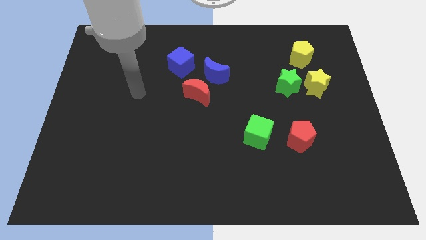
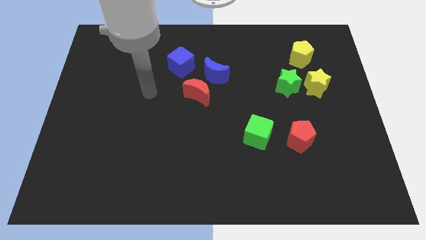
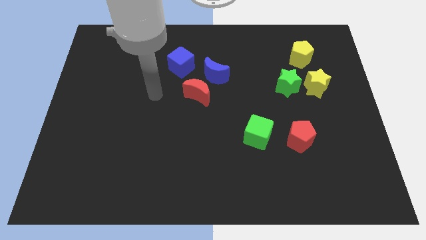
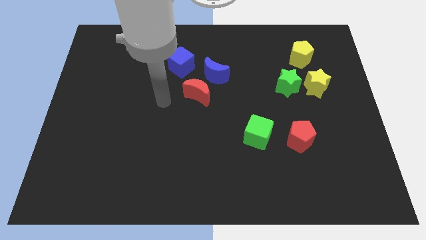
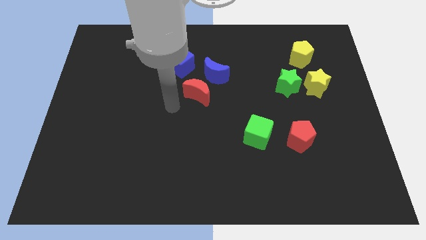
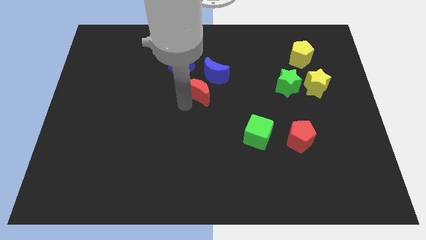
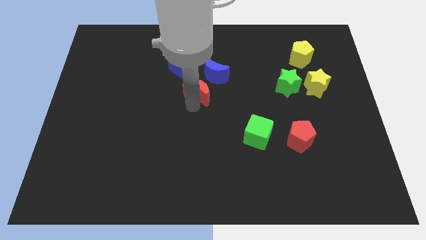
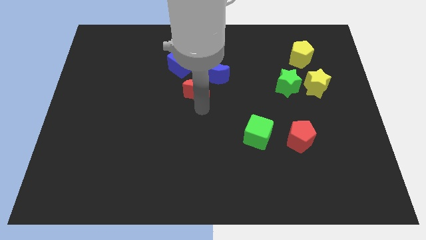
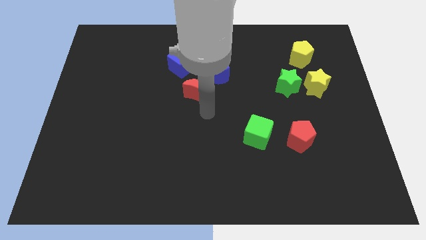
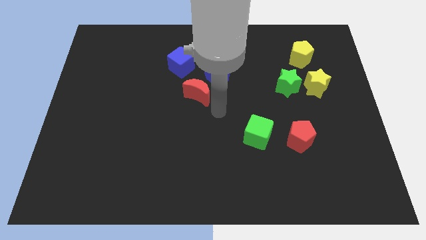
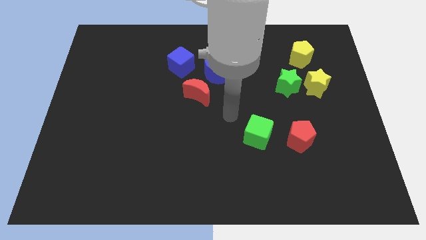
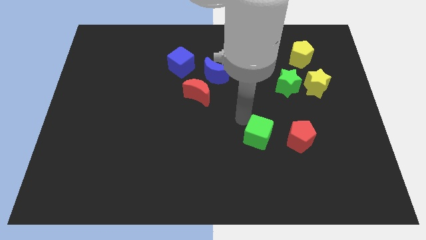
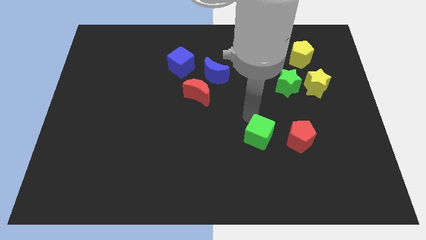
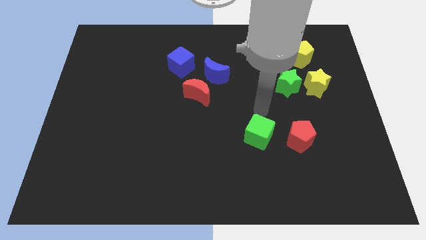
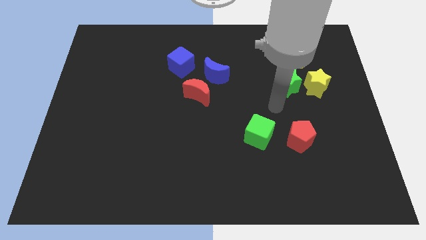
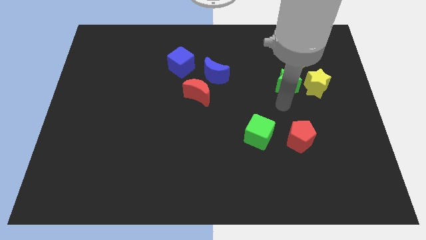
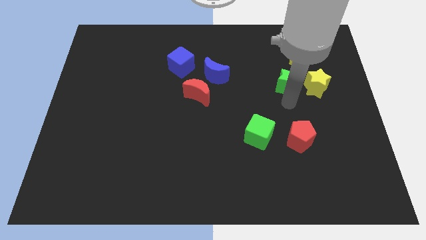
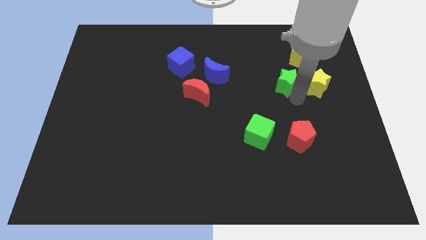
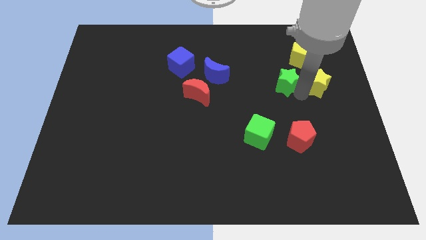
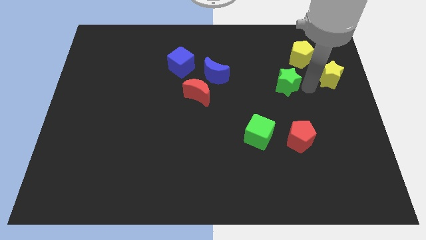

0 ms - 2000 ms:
separate the green star from the yellow star

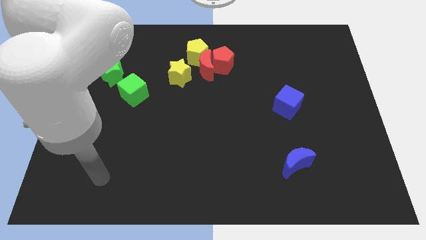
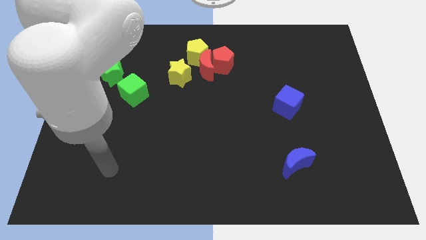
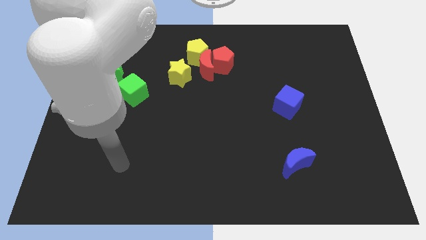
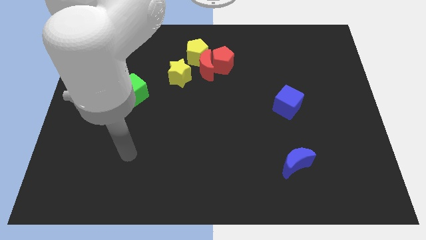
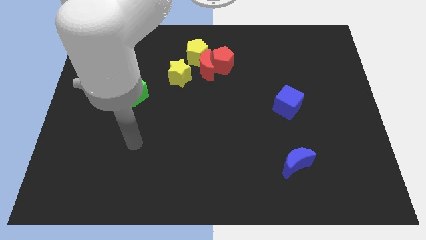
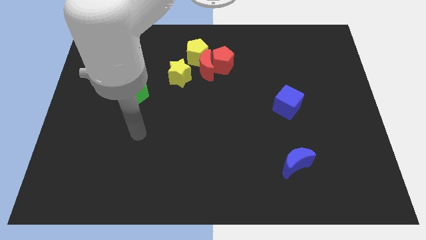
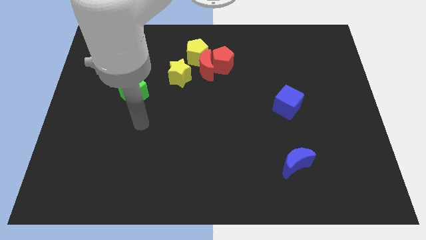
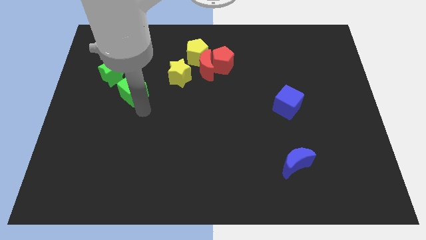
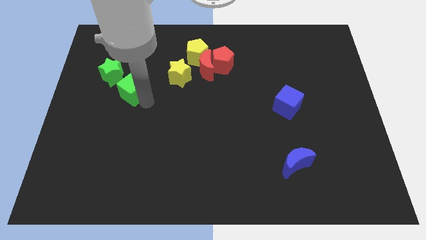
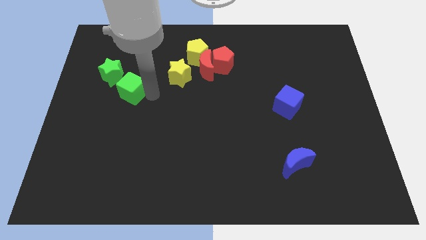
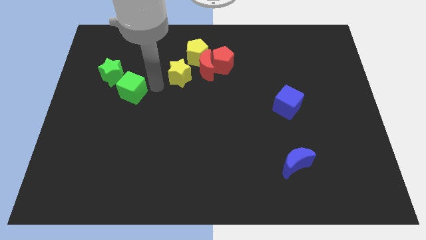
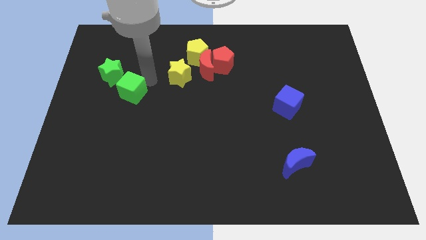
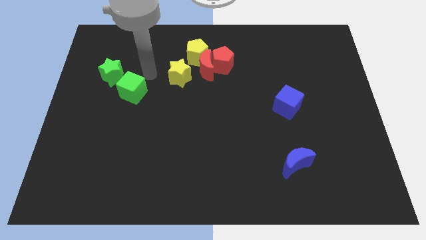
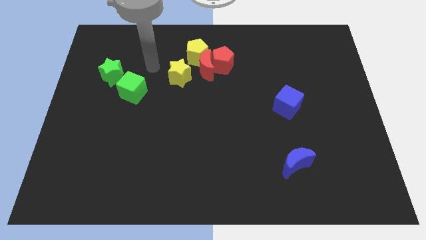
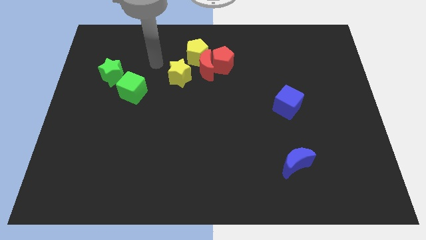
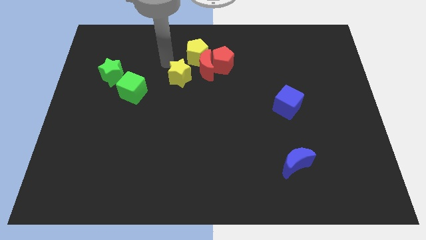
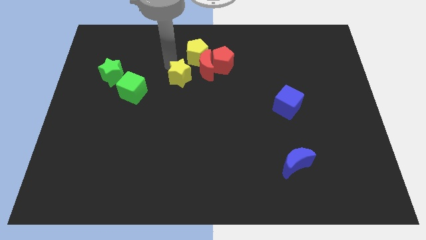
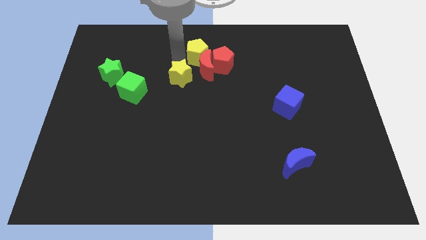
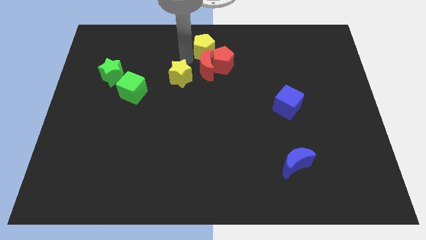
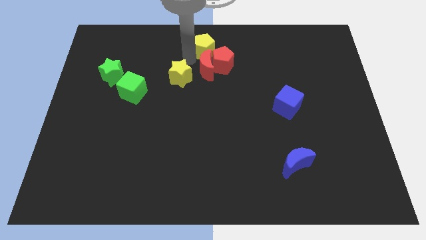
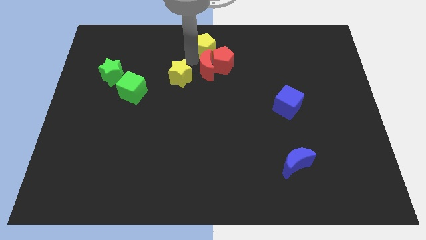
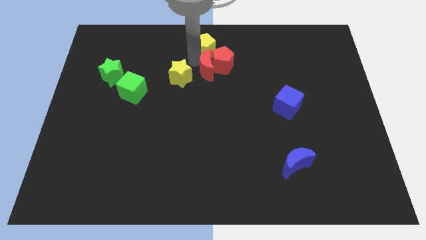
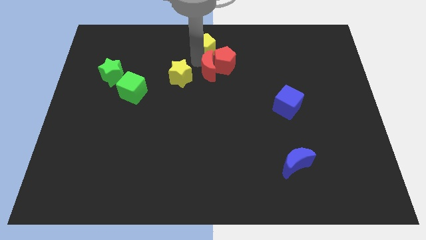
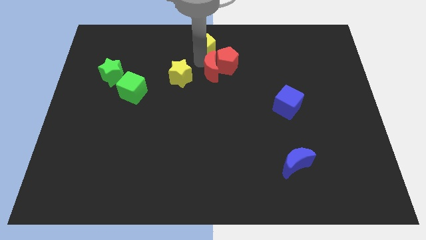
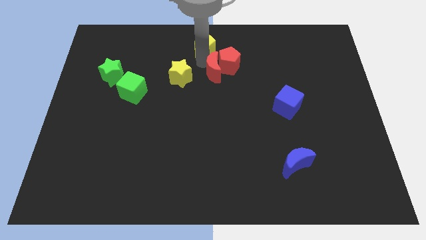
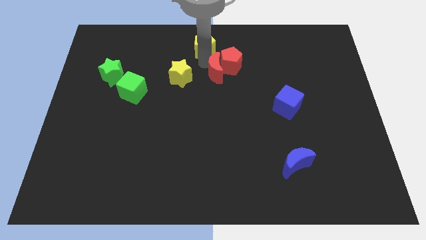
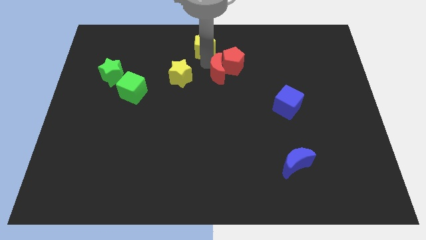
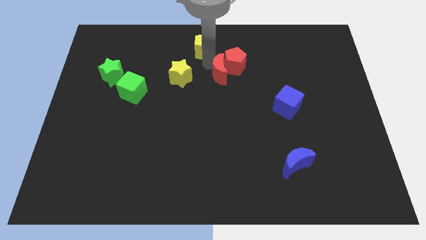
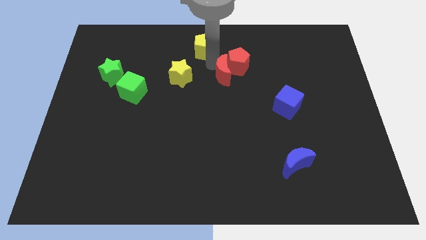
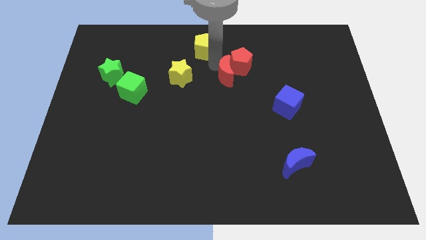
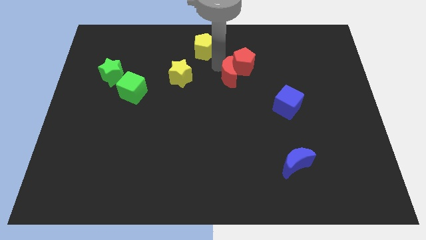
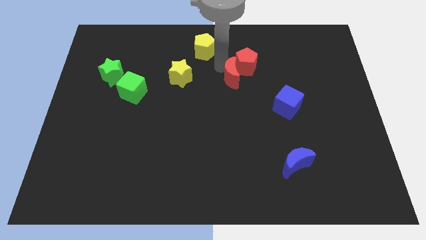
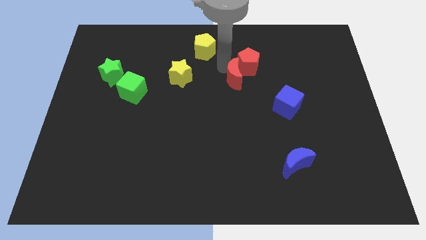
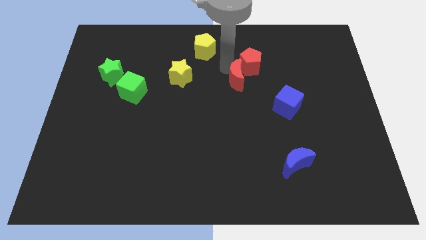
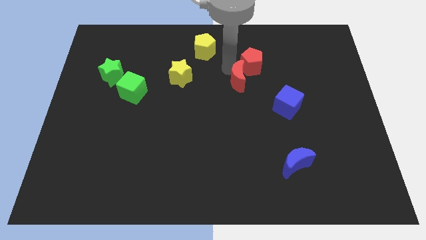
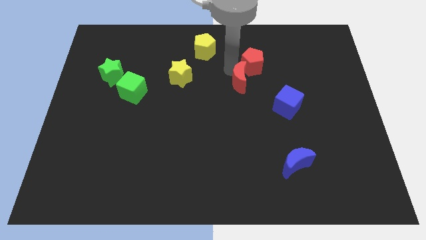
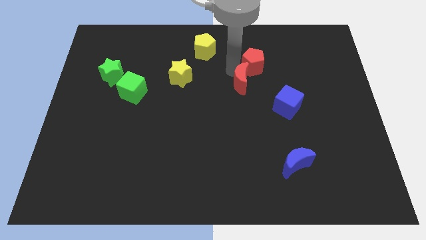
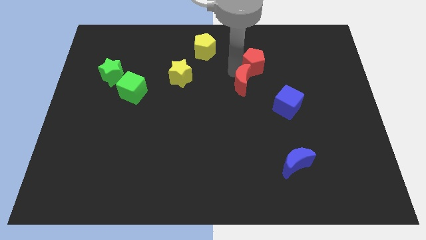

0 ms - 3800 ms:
pull the red moon apart from the red pentagon, yellow pentagon, and yellow star

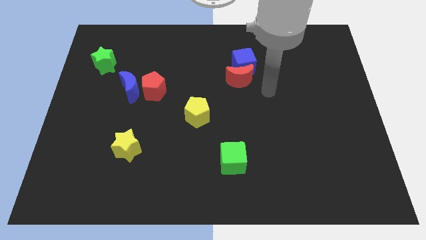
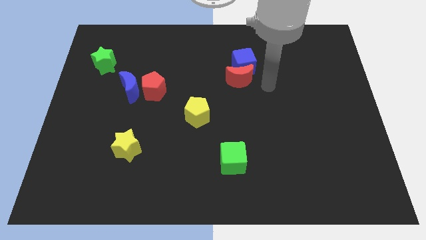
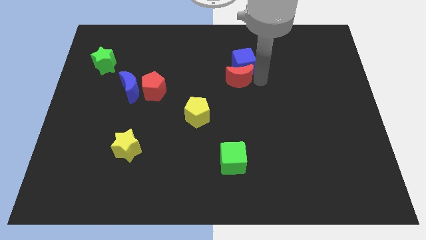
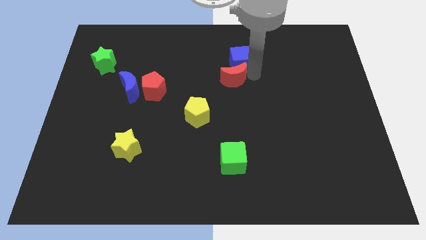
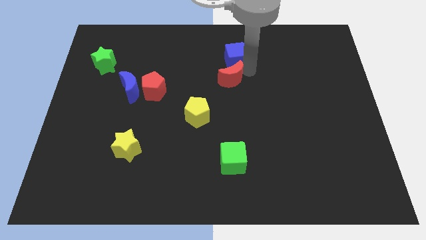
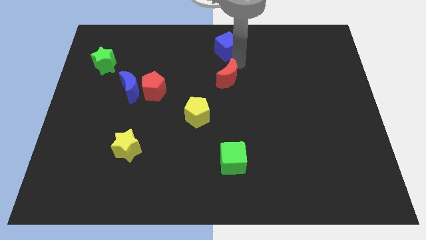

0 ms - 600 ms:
move the red moon away from the blue cube

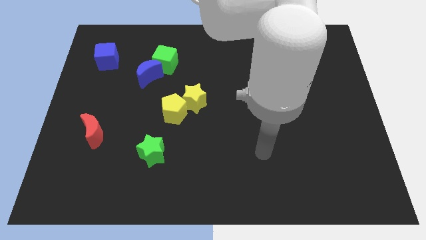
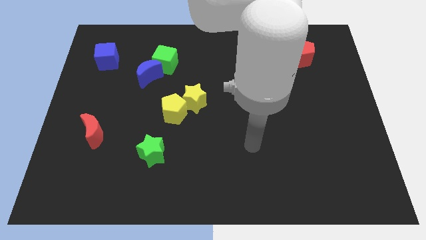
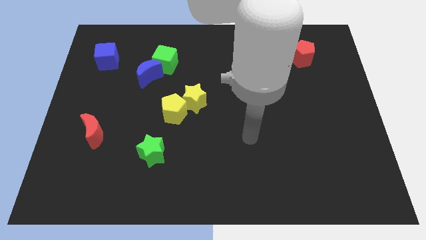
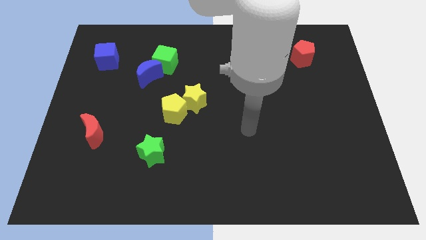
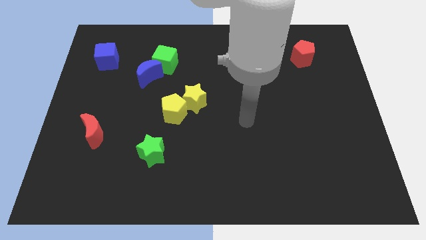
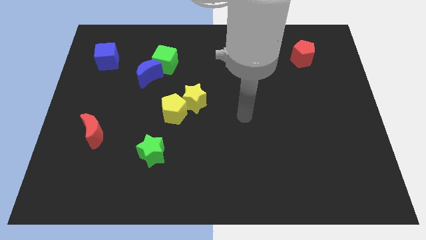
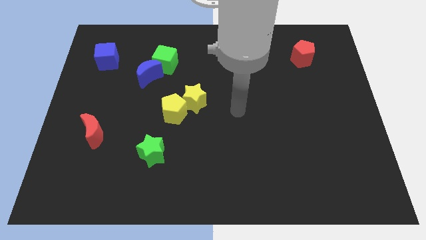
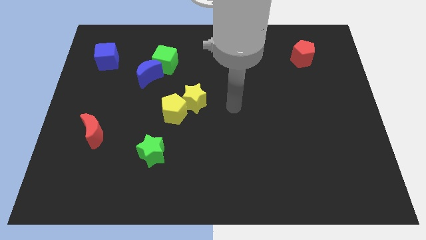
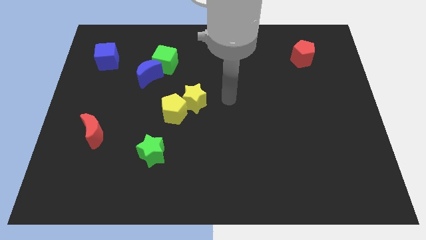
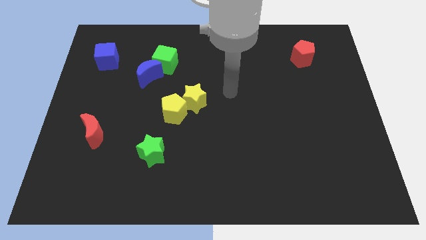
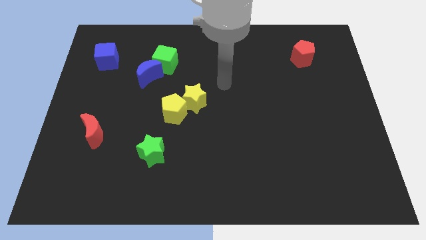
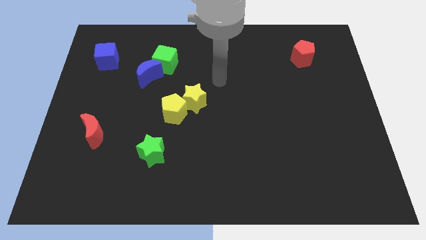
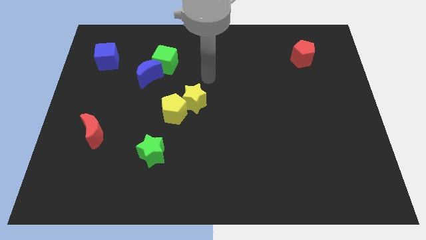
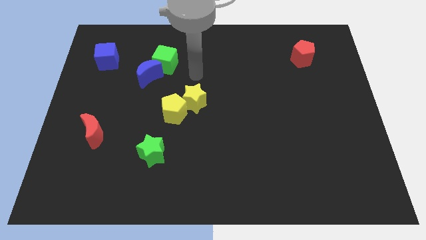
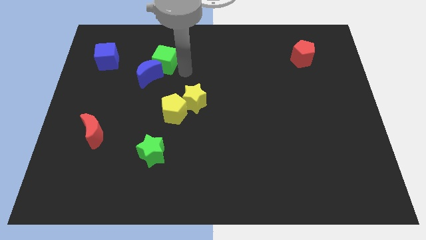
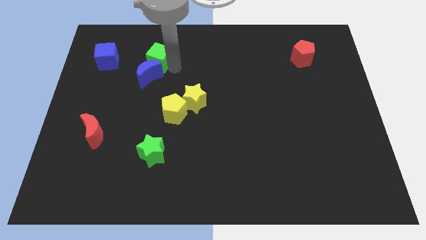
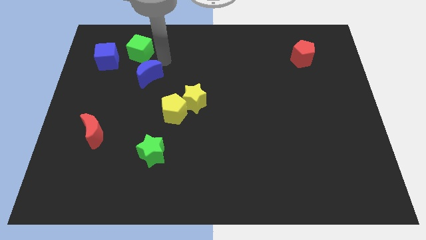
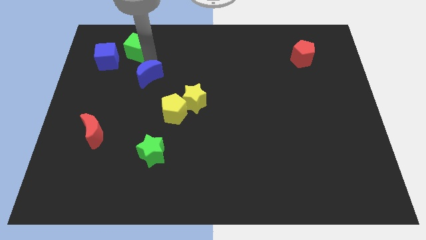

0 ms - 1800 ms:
pull the blue moon apart from the green cube

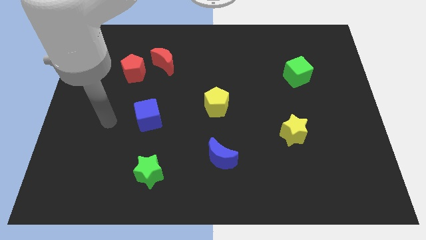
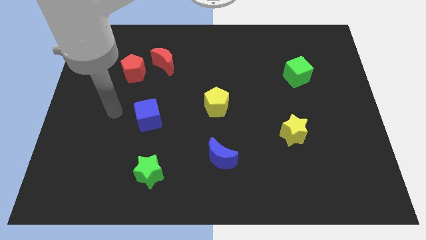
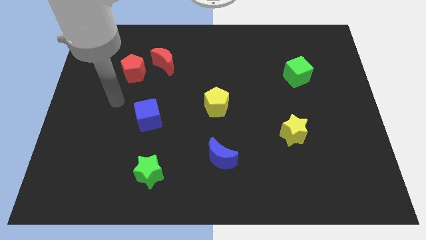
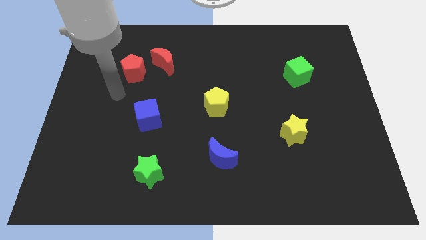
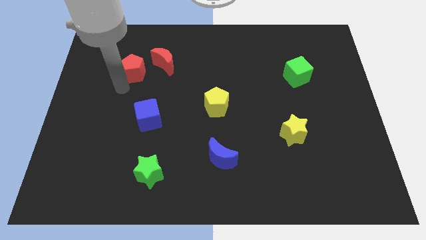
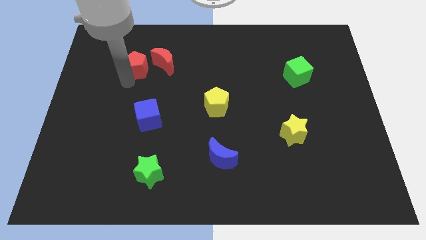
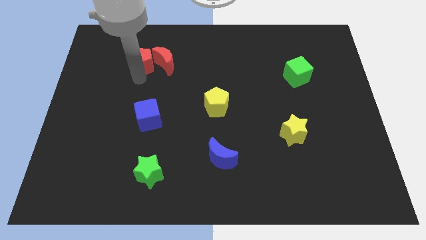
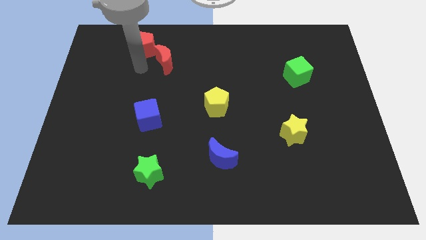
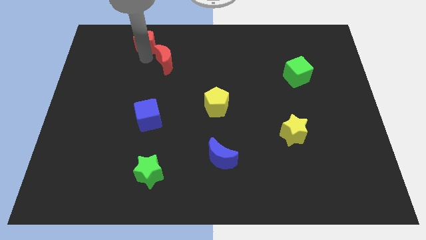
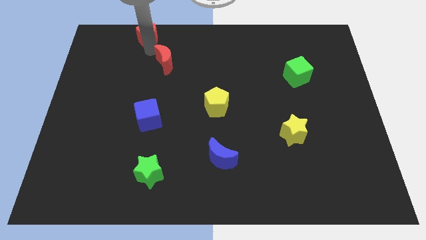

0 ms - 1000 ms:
separate the red moon from the red pentagon
